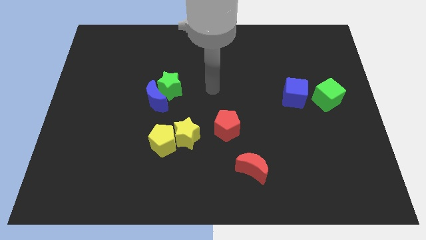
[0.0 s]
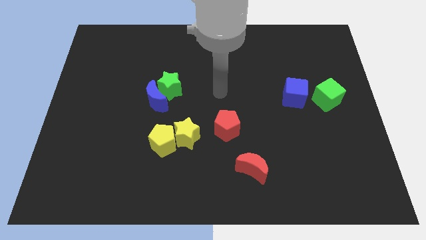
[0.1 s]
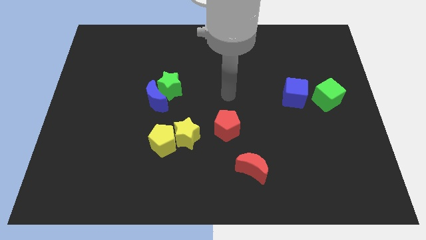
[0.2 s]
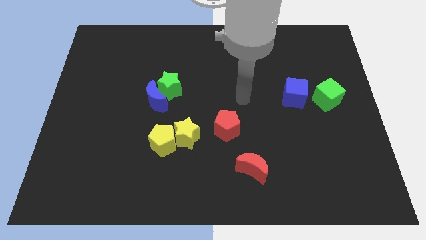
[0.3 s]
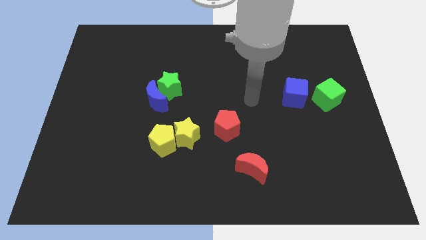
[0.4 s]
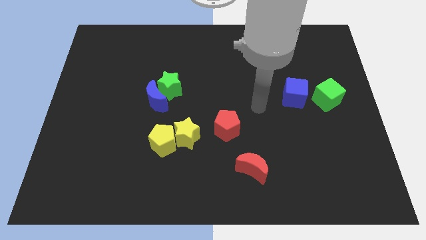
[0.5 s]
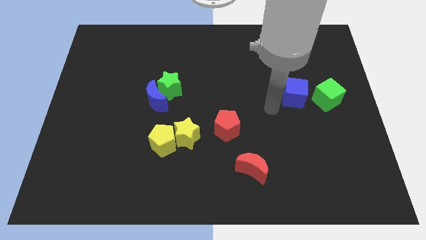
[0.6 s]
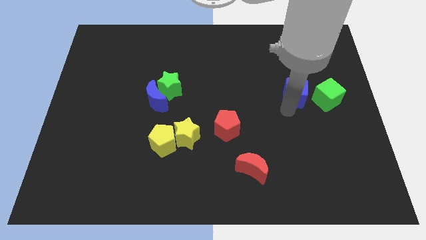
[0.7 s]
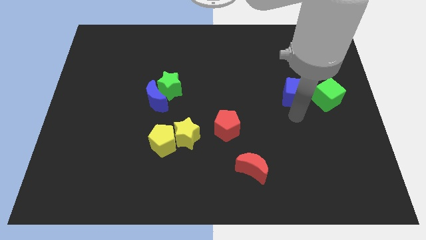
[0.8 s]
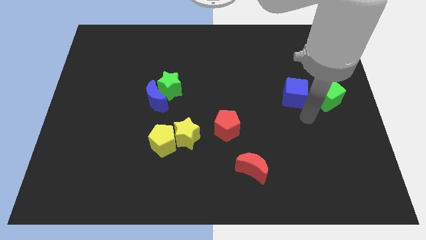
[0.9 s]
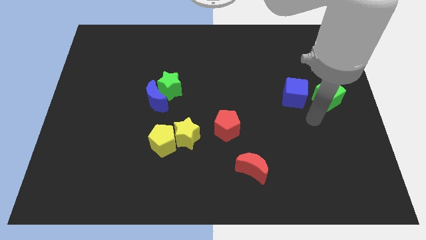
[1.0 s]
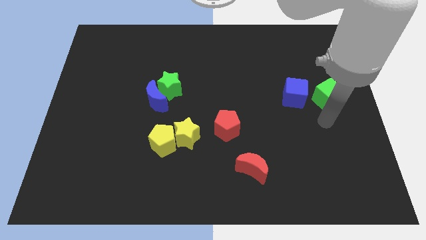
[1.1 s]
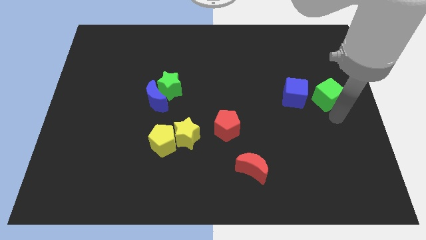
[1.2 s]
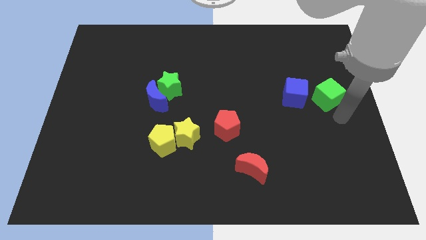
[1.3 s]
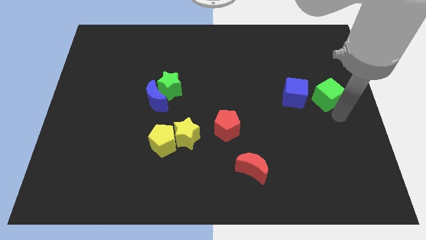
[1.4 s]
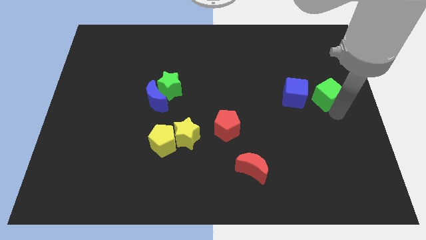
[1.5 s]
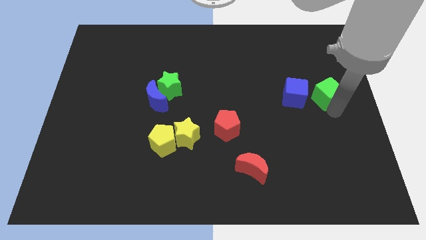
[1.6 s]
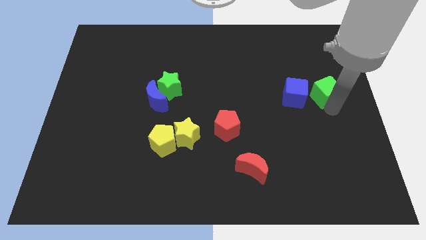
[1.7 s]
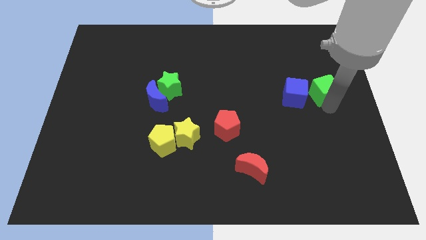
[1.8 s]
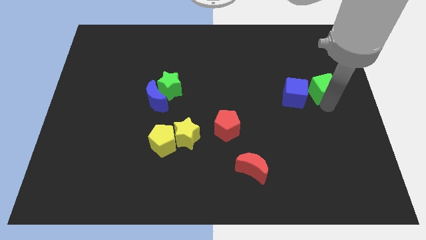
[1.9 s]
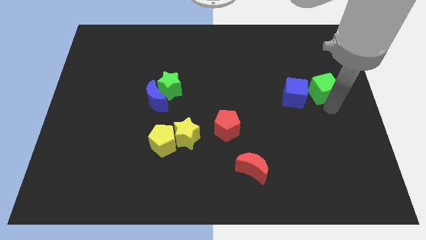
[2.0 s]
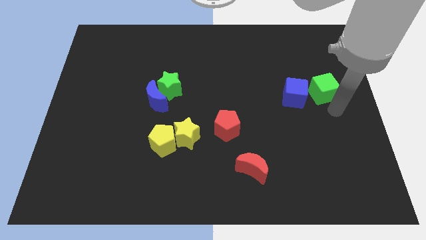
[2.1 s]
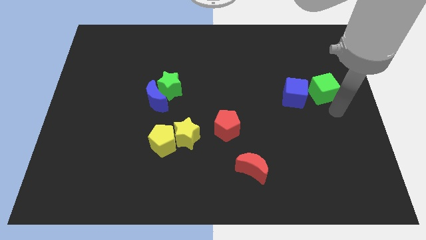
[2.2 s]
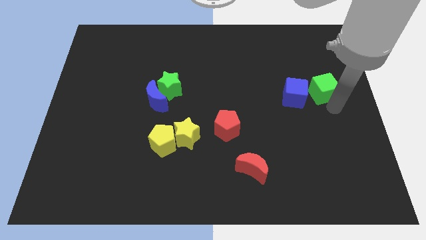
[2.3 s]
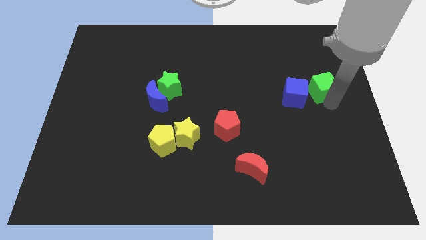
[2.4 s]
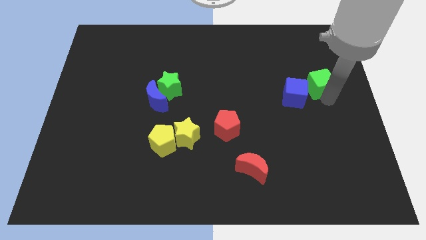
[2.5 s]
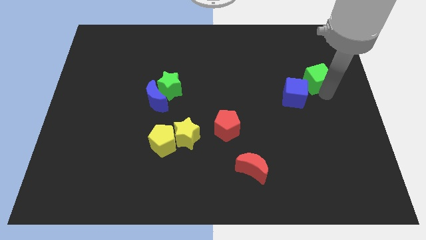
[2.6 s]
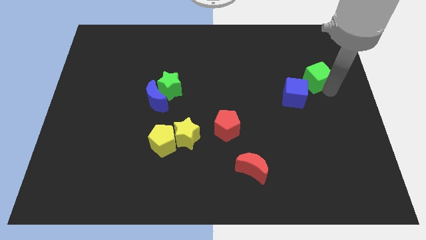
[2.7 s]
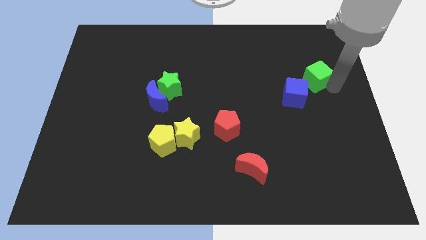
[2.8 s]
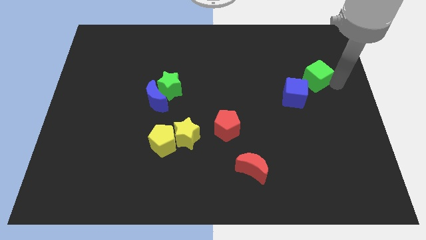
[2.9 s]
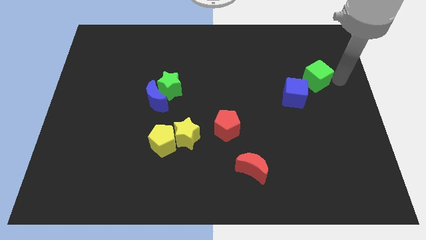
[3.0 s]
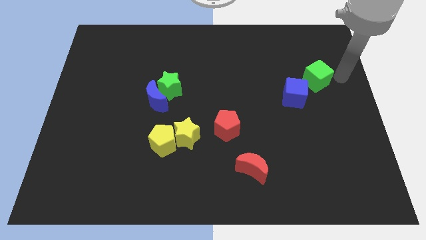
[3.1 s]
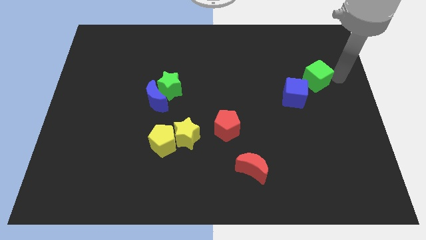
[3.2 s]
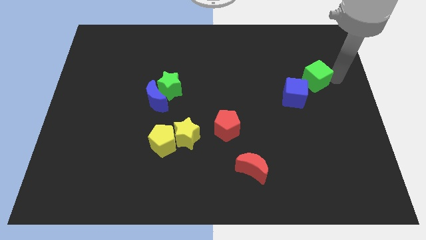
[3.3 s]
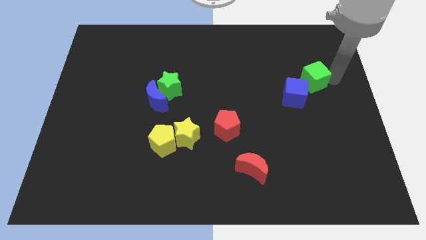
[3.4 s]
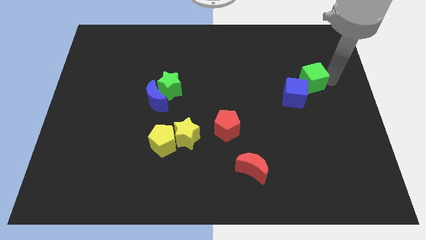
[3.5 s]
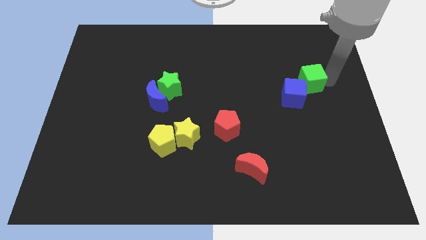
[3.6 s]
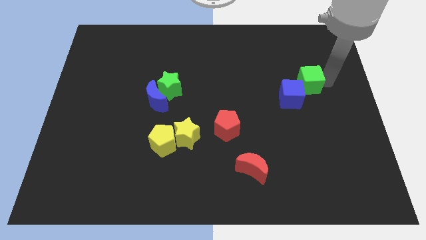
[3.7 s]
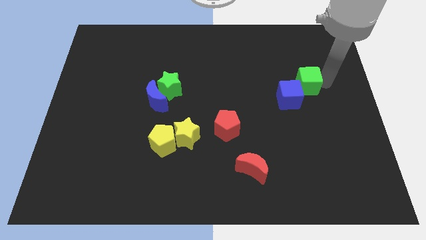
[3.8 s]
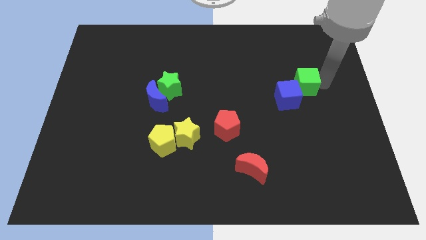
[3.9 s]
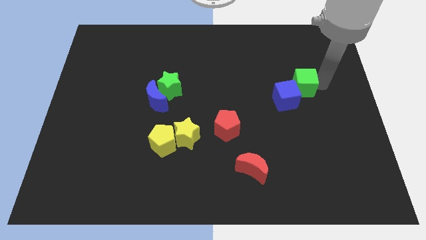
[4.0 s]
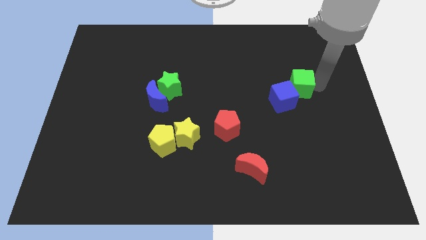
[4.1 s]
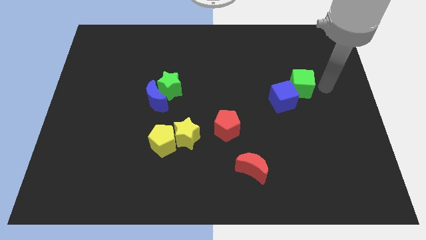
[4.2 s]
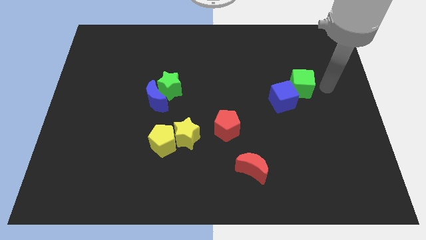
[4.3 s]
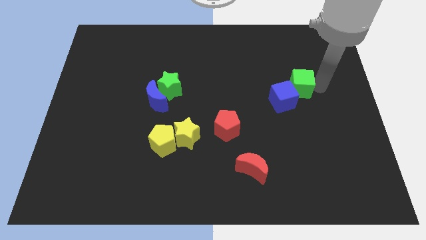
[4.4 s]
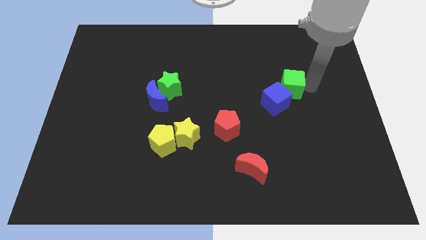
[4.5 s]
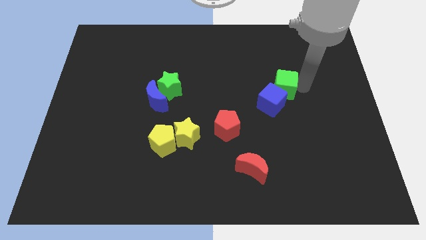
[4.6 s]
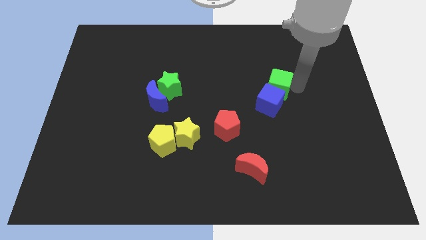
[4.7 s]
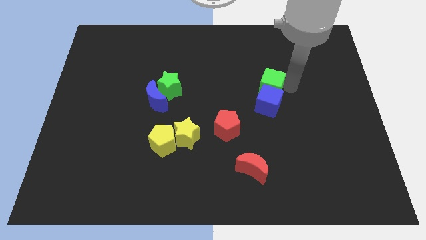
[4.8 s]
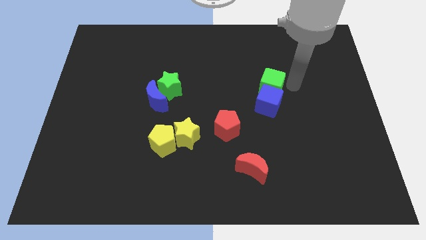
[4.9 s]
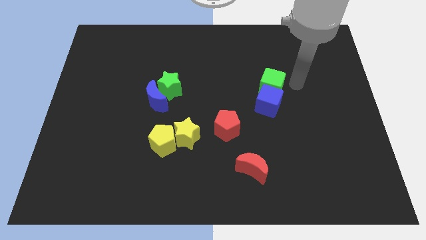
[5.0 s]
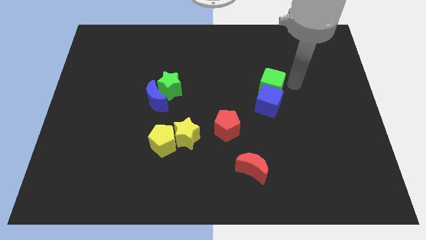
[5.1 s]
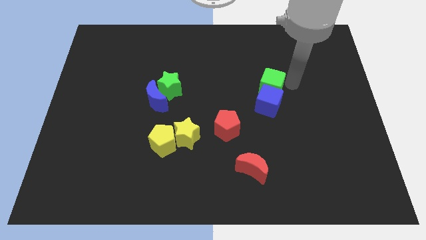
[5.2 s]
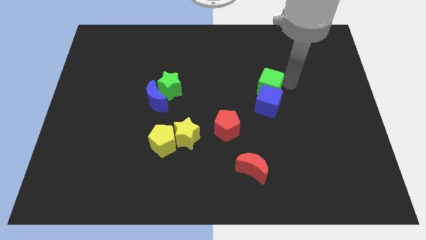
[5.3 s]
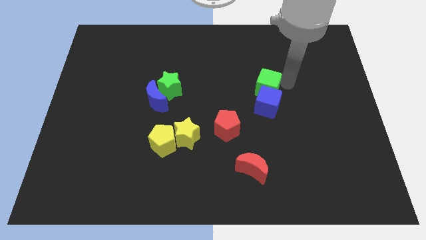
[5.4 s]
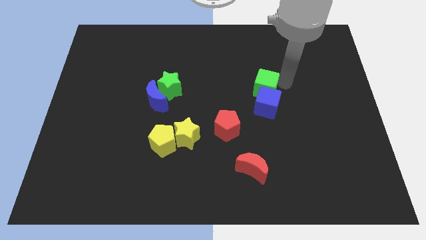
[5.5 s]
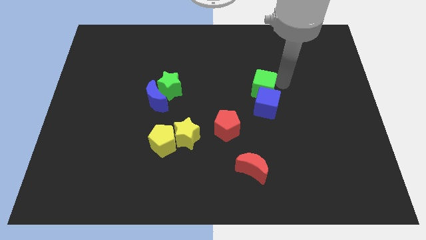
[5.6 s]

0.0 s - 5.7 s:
put the green cube to the middle of the board

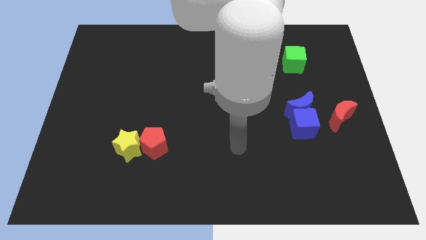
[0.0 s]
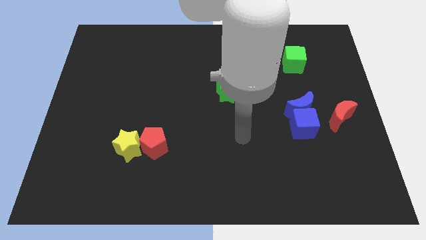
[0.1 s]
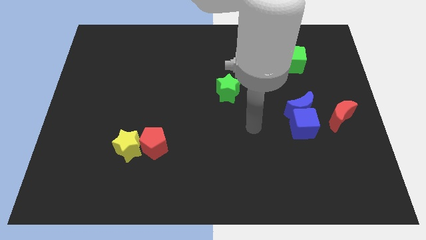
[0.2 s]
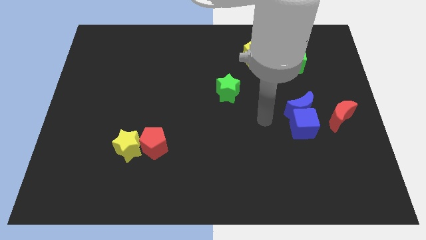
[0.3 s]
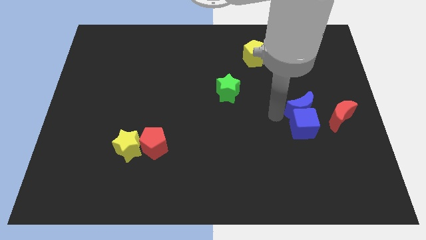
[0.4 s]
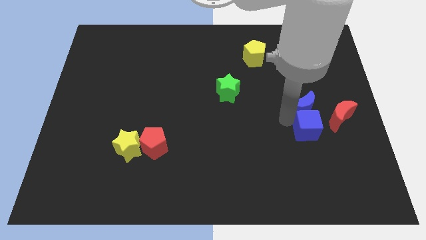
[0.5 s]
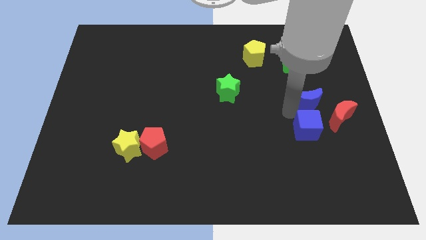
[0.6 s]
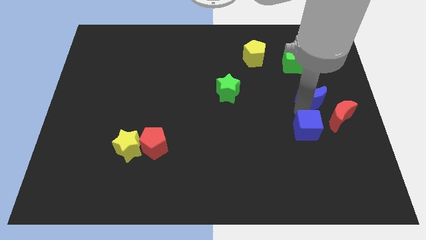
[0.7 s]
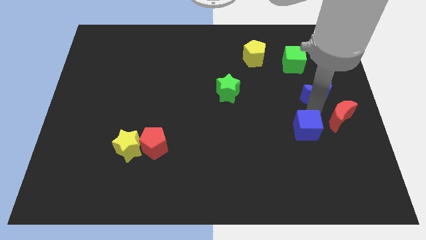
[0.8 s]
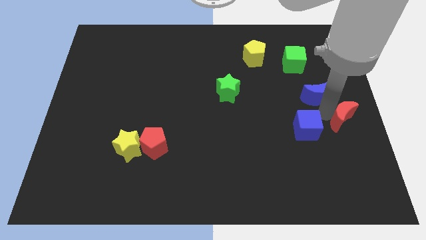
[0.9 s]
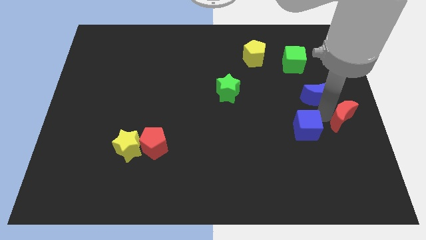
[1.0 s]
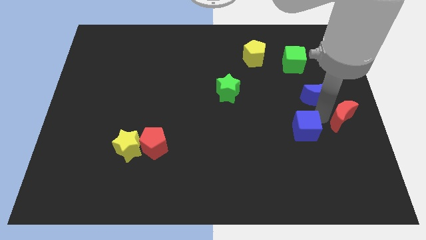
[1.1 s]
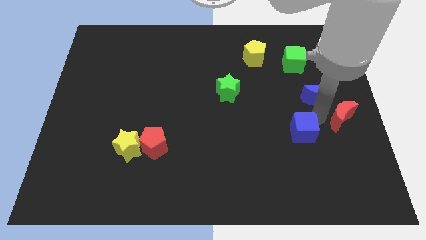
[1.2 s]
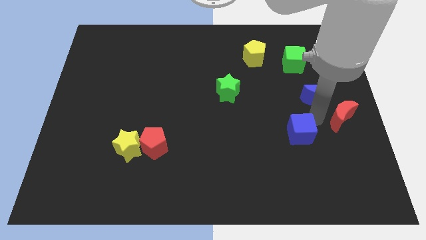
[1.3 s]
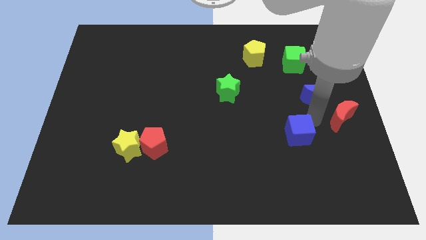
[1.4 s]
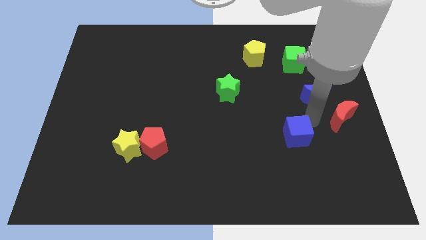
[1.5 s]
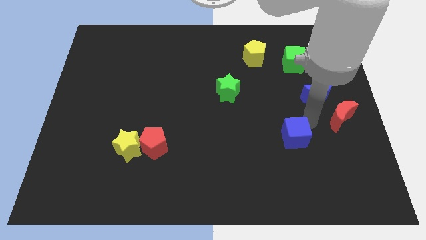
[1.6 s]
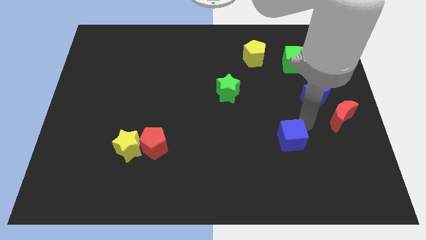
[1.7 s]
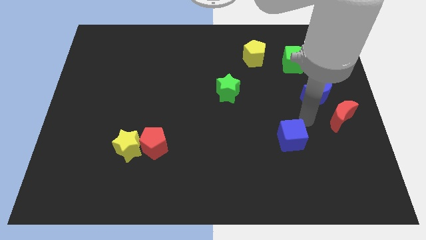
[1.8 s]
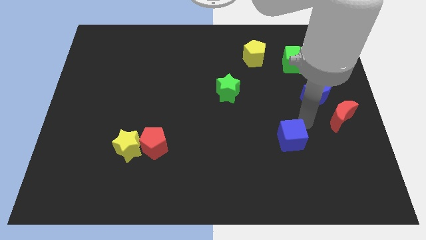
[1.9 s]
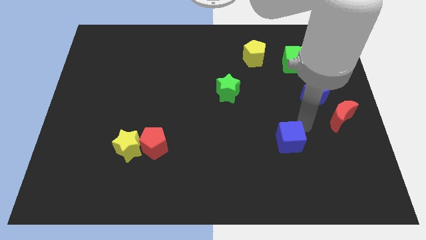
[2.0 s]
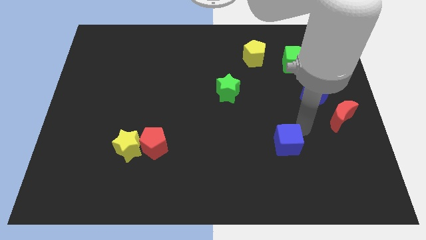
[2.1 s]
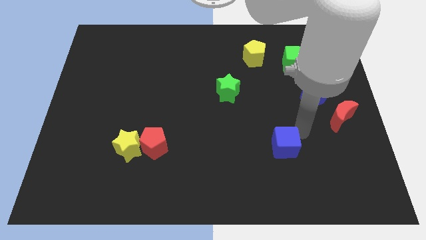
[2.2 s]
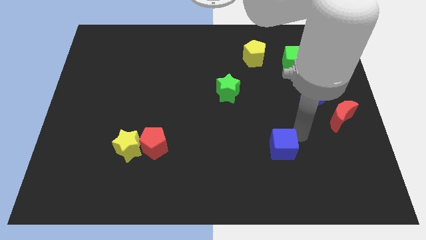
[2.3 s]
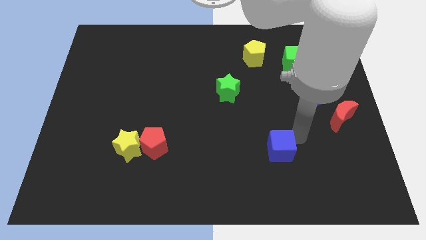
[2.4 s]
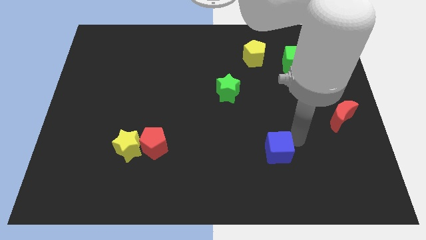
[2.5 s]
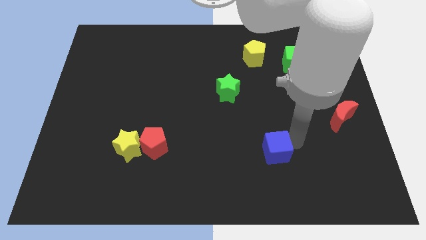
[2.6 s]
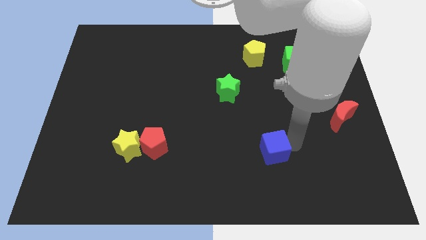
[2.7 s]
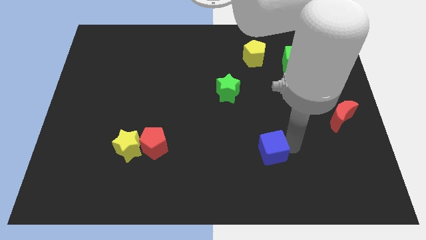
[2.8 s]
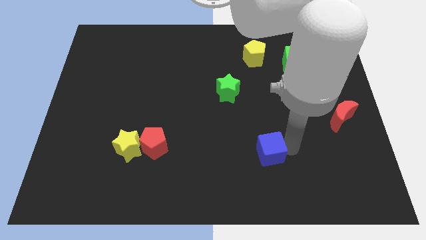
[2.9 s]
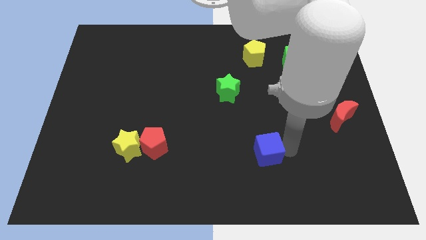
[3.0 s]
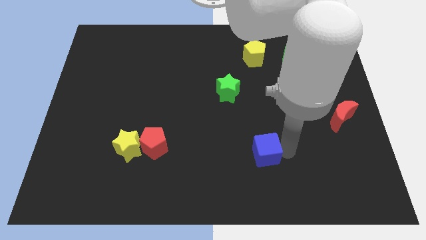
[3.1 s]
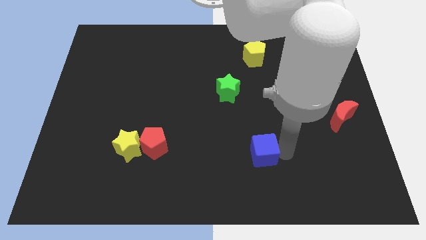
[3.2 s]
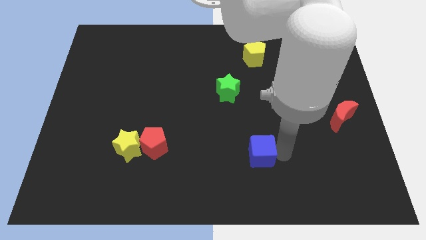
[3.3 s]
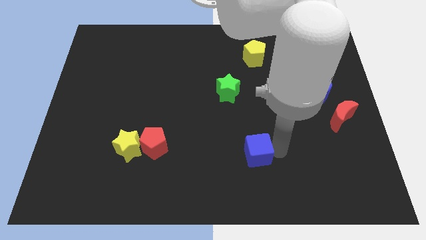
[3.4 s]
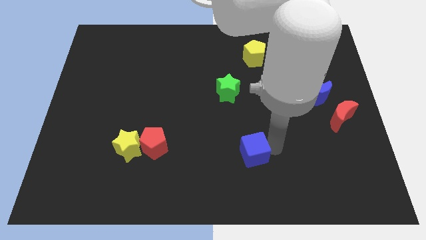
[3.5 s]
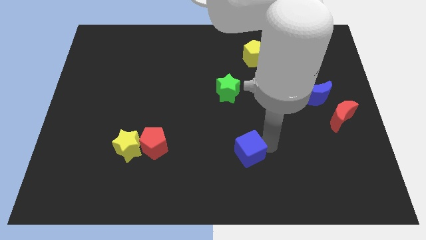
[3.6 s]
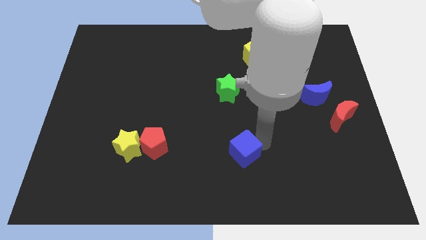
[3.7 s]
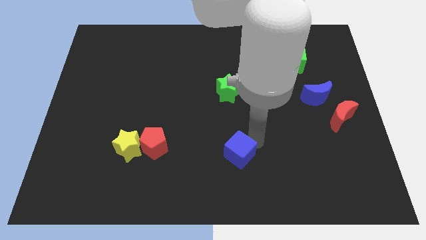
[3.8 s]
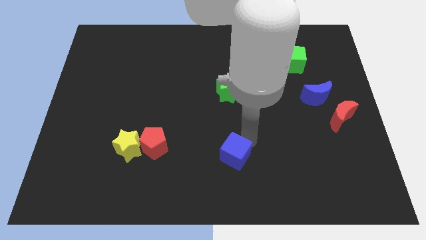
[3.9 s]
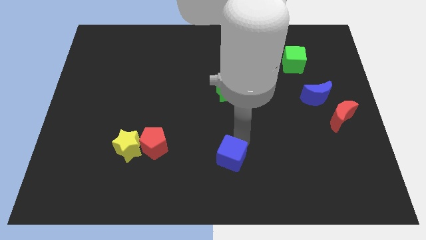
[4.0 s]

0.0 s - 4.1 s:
move the blue cube to the bottom
